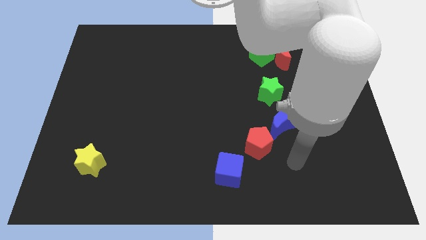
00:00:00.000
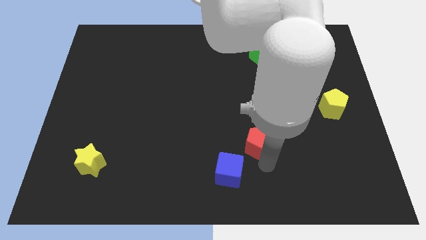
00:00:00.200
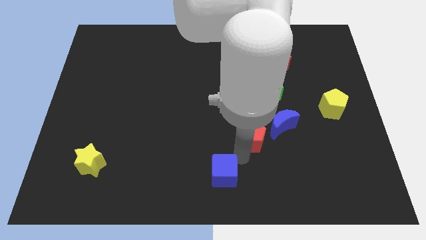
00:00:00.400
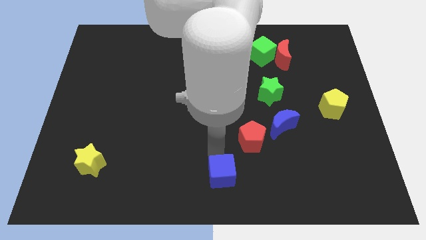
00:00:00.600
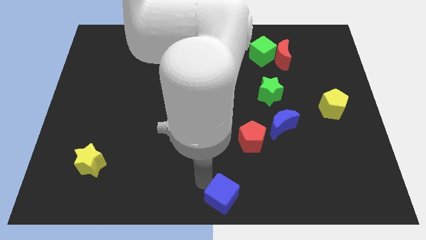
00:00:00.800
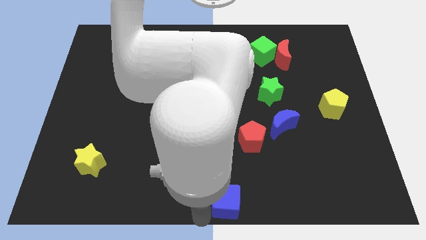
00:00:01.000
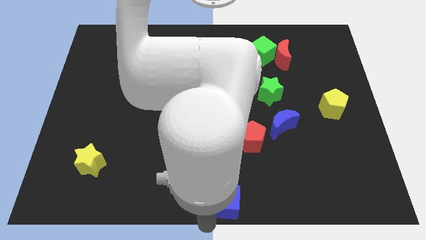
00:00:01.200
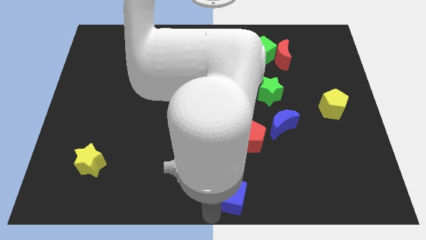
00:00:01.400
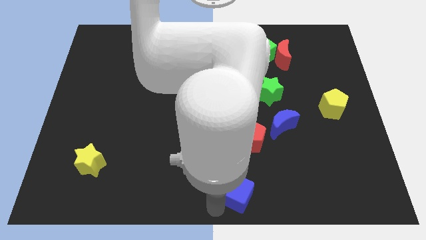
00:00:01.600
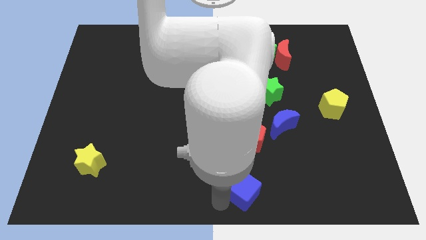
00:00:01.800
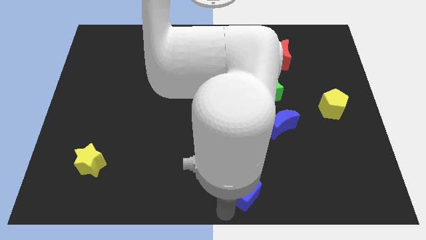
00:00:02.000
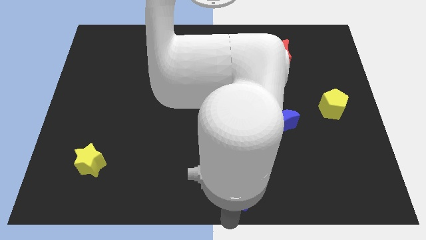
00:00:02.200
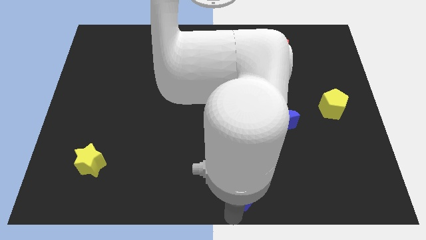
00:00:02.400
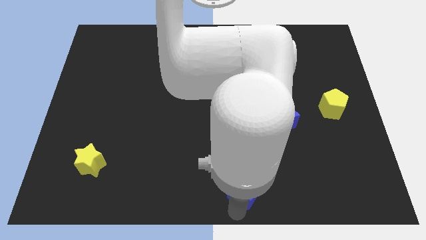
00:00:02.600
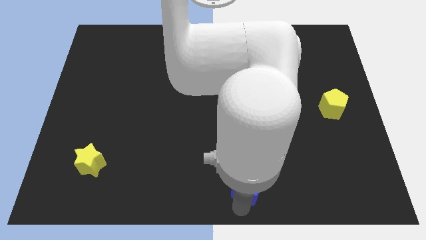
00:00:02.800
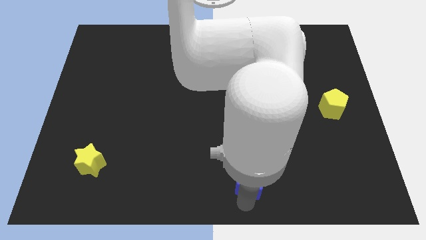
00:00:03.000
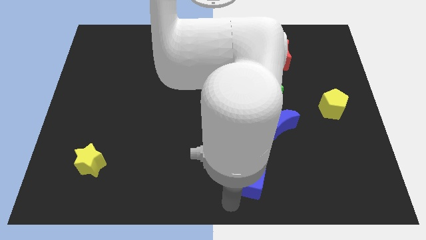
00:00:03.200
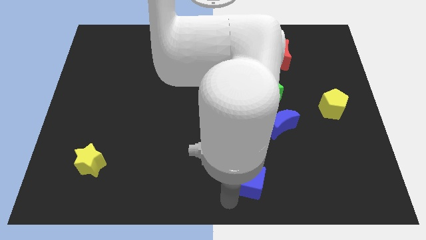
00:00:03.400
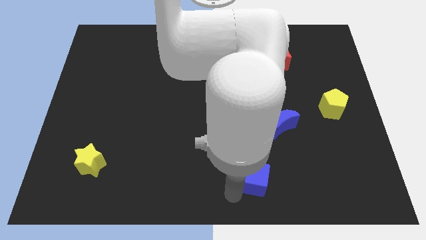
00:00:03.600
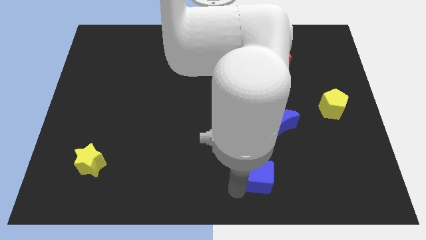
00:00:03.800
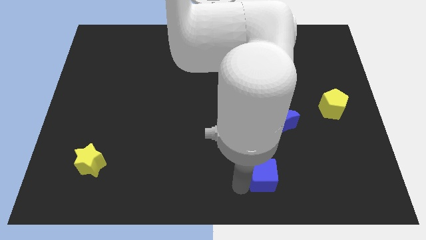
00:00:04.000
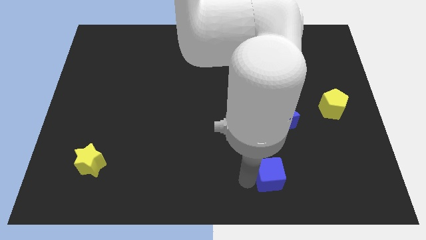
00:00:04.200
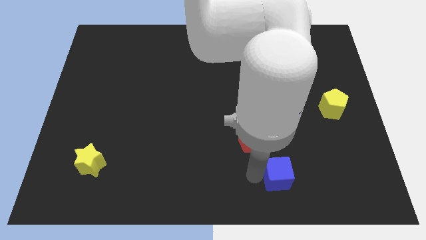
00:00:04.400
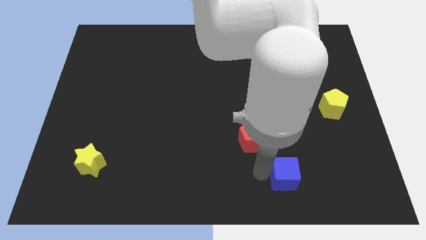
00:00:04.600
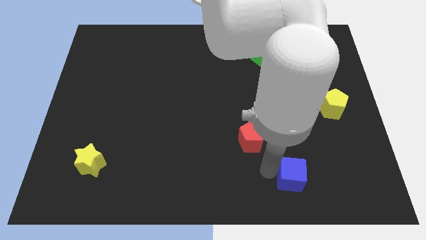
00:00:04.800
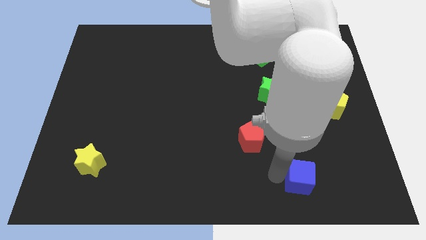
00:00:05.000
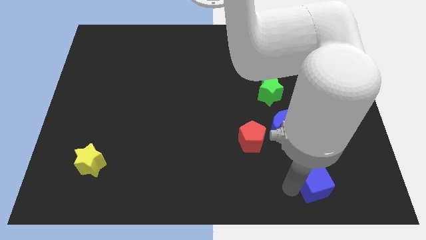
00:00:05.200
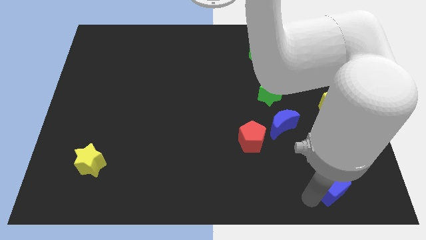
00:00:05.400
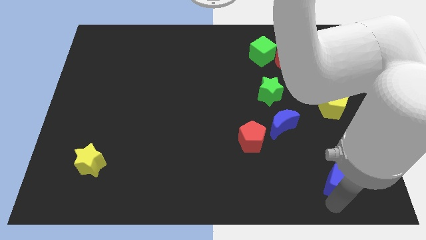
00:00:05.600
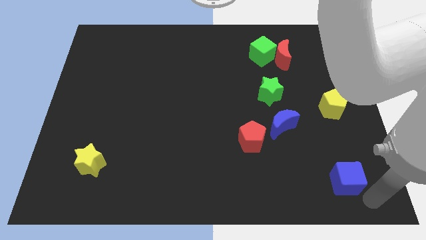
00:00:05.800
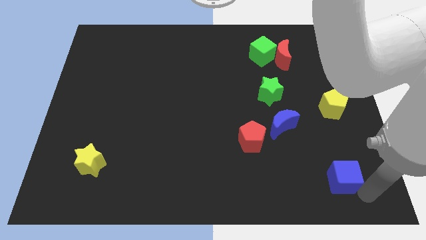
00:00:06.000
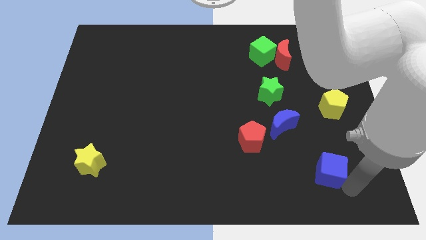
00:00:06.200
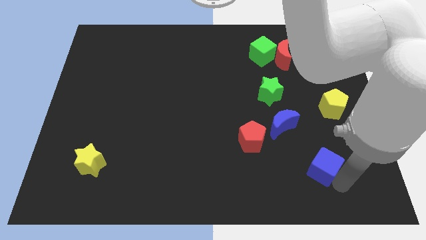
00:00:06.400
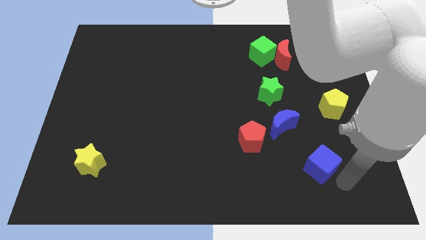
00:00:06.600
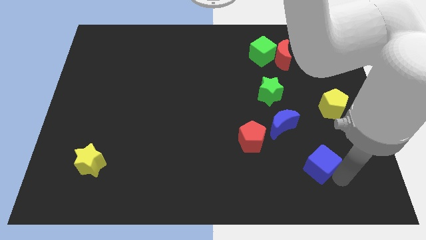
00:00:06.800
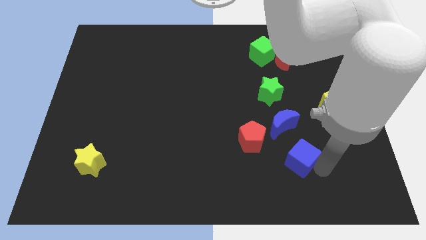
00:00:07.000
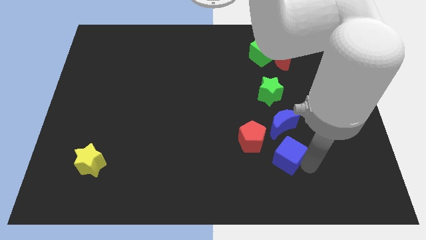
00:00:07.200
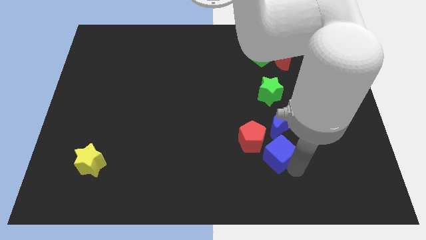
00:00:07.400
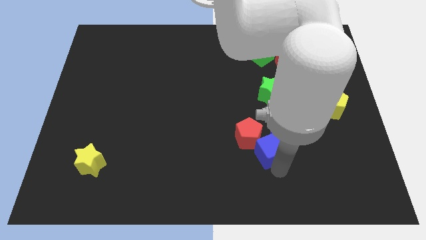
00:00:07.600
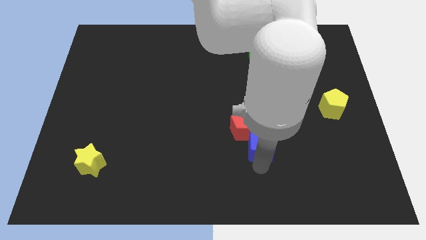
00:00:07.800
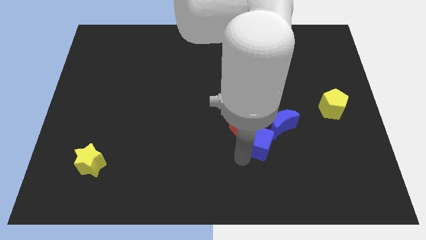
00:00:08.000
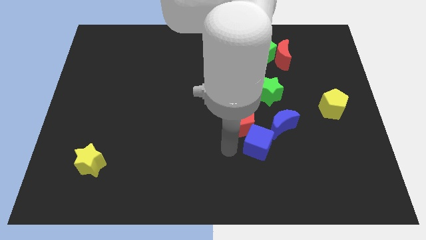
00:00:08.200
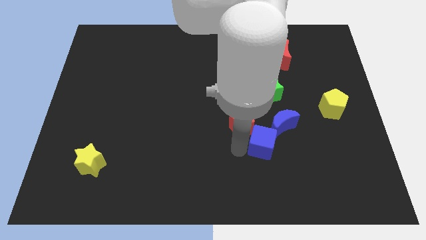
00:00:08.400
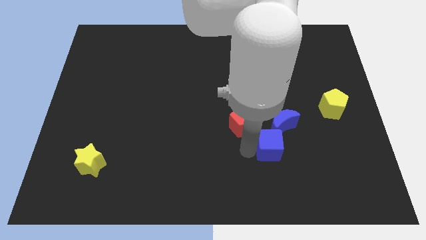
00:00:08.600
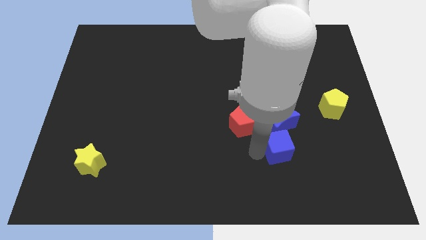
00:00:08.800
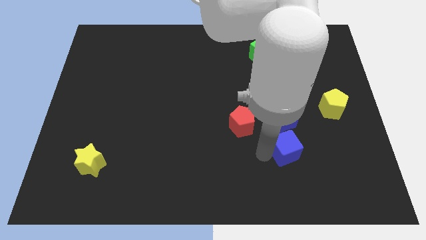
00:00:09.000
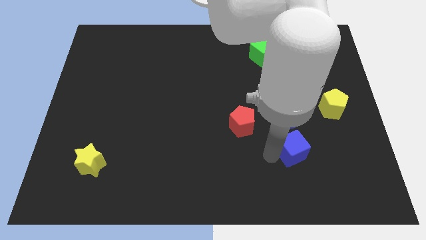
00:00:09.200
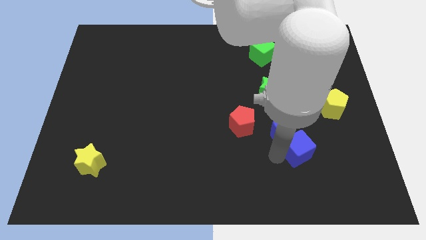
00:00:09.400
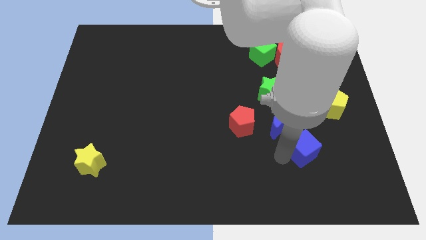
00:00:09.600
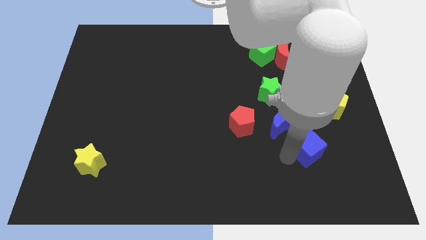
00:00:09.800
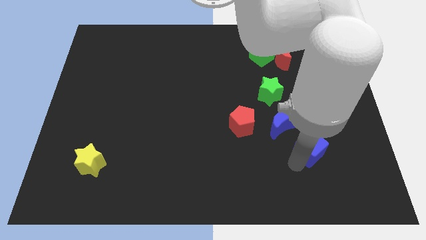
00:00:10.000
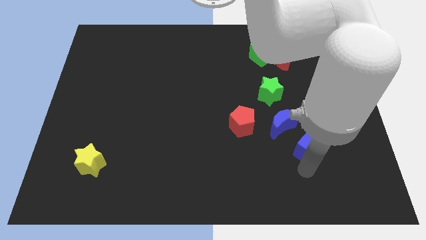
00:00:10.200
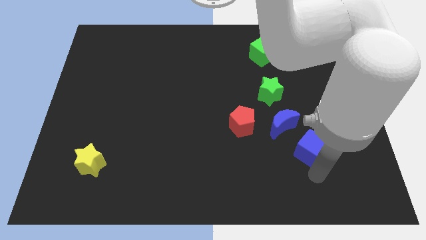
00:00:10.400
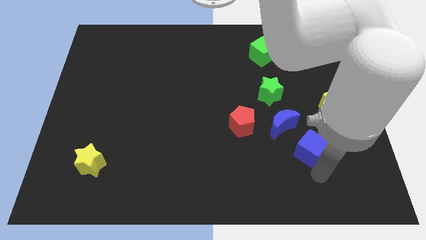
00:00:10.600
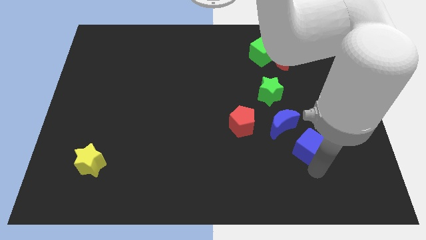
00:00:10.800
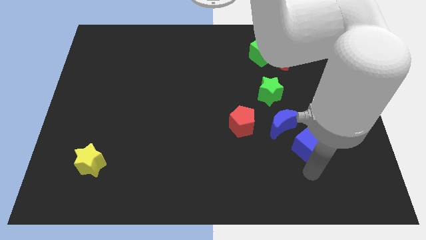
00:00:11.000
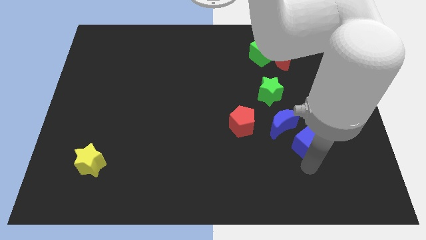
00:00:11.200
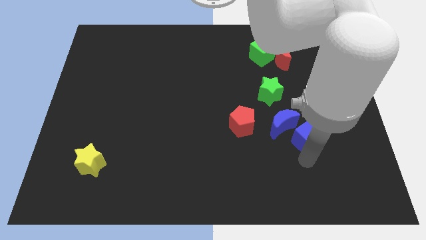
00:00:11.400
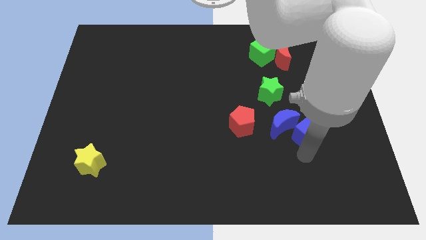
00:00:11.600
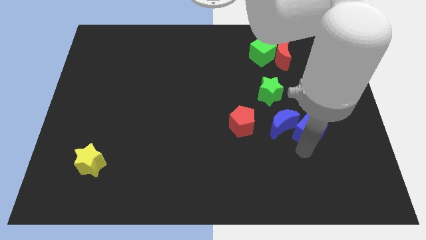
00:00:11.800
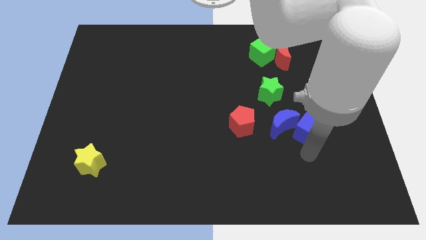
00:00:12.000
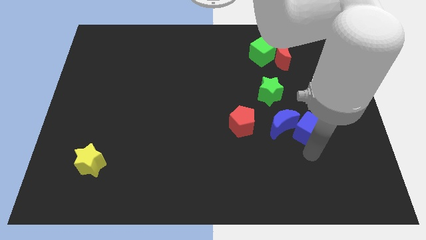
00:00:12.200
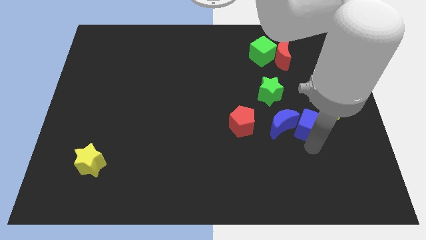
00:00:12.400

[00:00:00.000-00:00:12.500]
move the blue cube upwards and then to the right

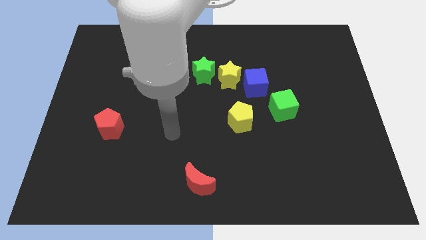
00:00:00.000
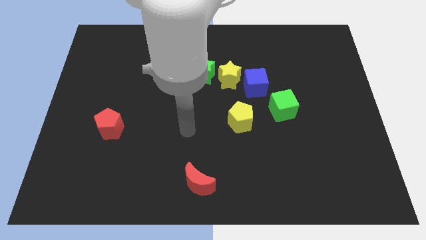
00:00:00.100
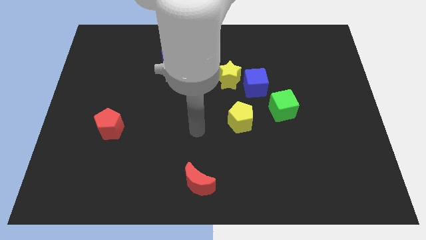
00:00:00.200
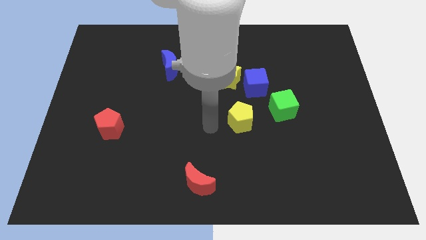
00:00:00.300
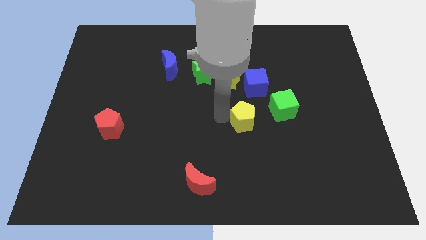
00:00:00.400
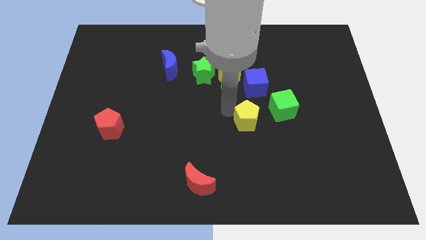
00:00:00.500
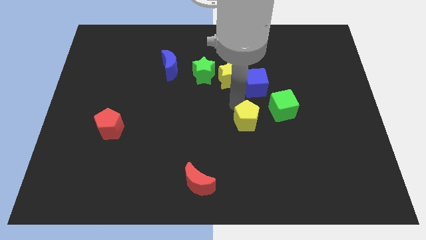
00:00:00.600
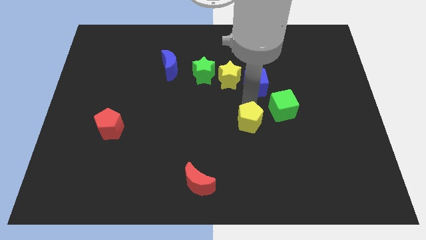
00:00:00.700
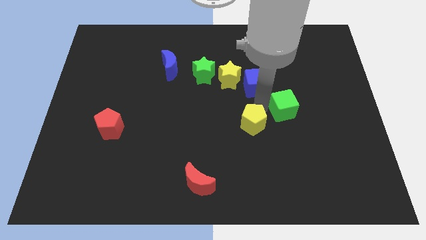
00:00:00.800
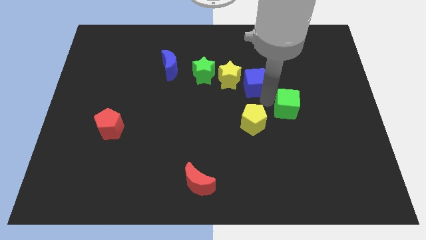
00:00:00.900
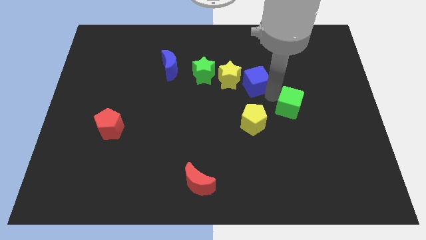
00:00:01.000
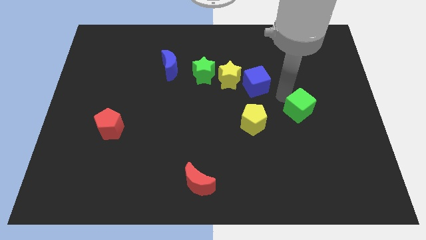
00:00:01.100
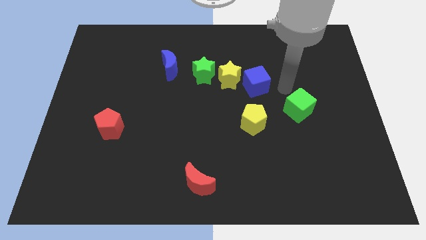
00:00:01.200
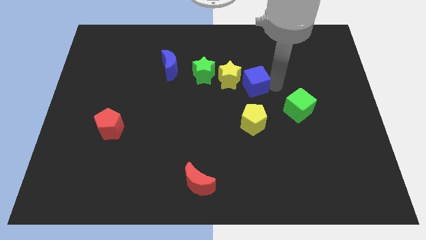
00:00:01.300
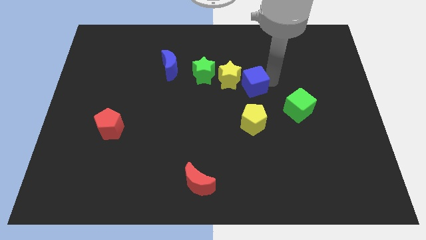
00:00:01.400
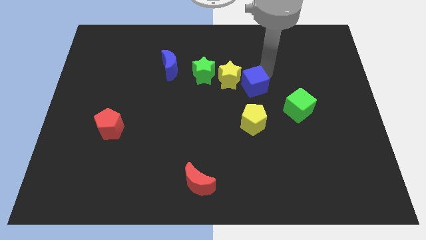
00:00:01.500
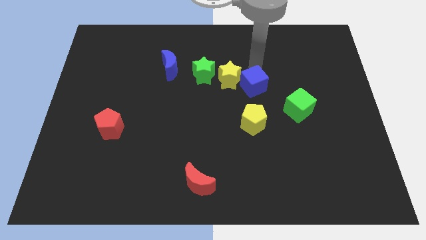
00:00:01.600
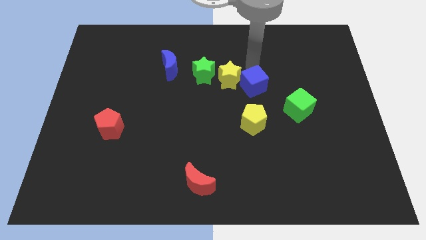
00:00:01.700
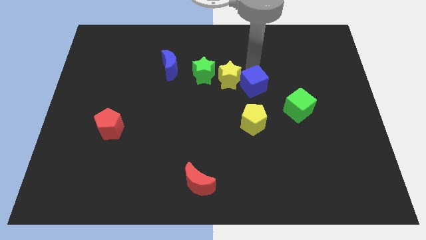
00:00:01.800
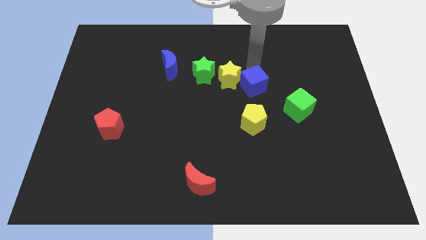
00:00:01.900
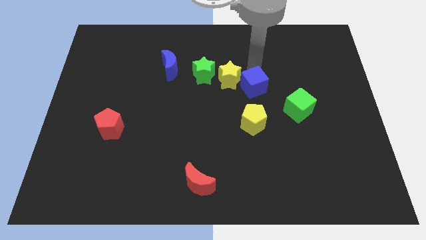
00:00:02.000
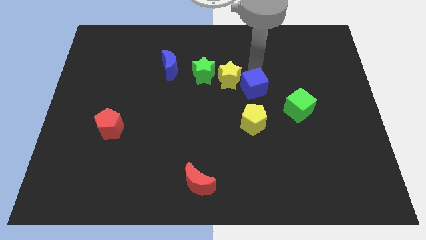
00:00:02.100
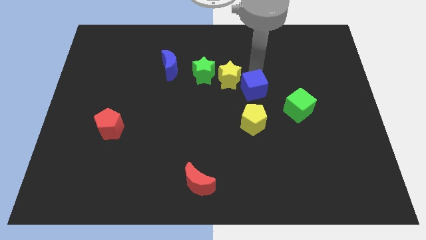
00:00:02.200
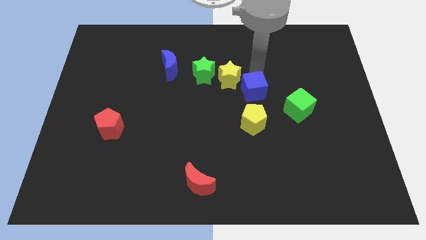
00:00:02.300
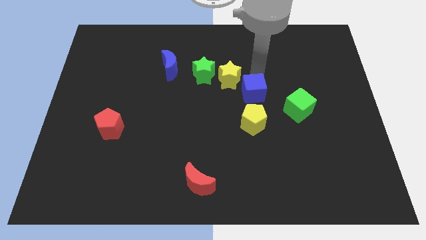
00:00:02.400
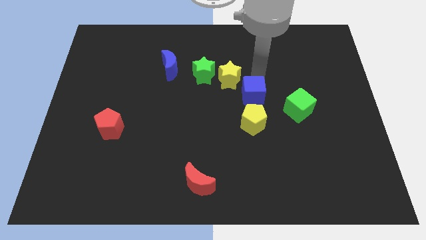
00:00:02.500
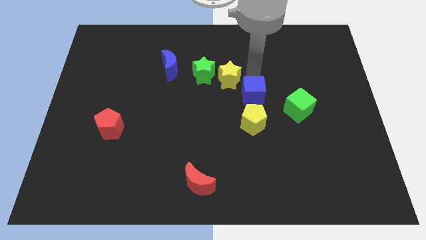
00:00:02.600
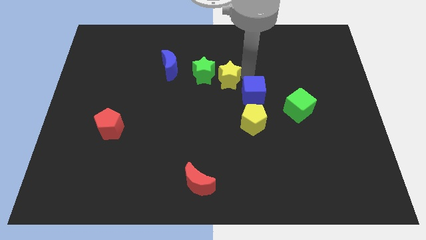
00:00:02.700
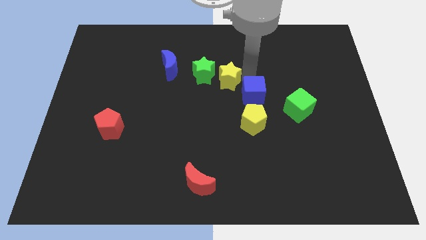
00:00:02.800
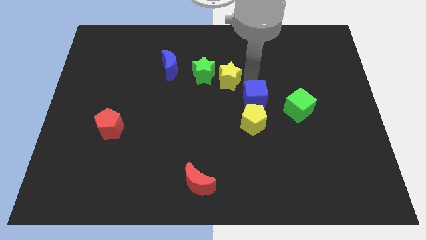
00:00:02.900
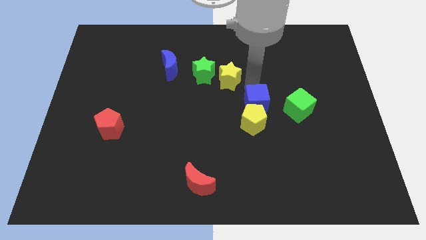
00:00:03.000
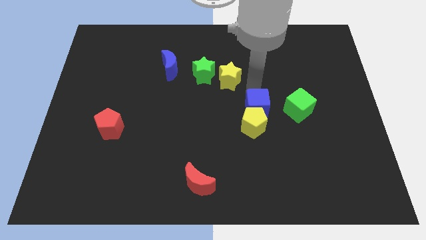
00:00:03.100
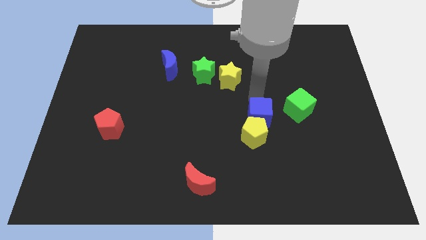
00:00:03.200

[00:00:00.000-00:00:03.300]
push the blue cube a bit downwards
